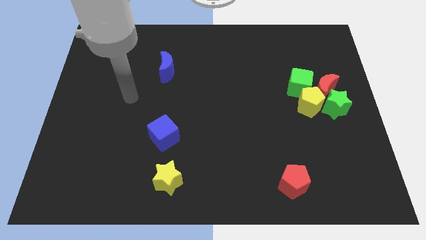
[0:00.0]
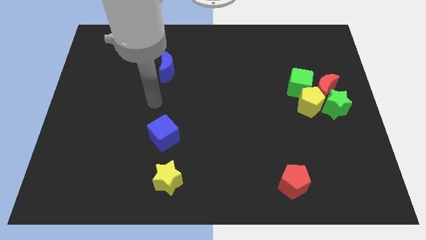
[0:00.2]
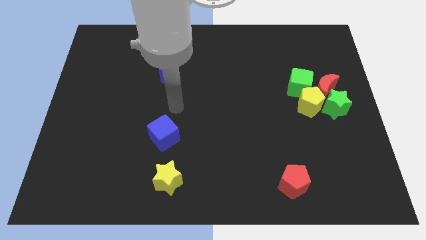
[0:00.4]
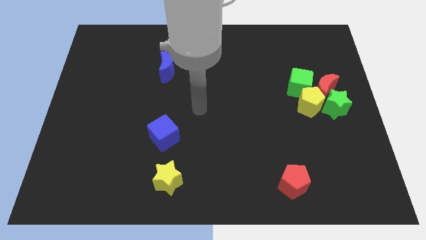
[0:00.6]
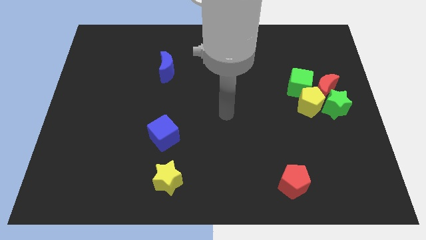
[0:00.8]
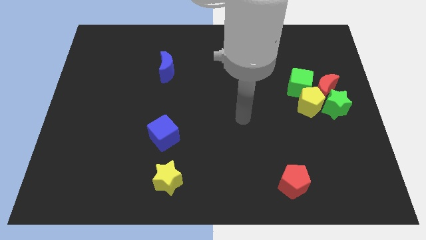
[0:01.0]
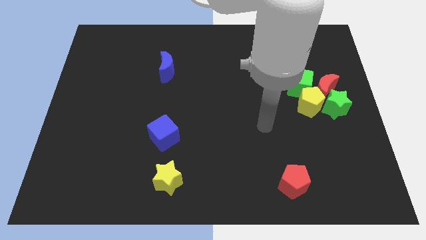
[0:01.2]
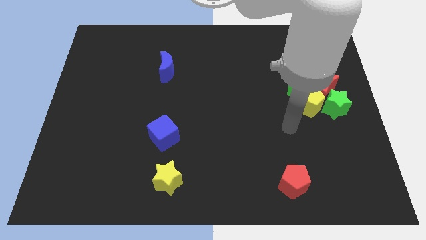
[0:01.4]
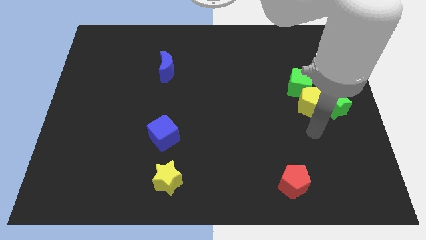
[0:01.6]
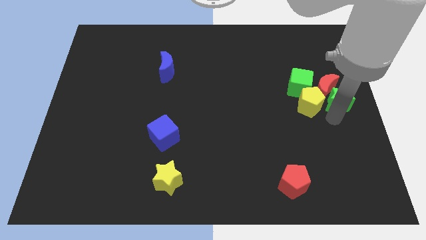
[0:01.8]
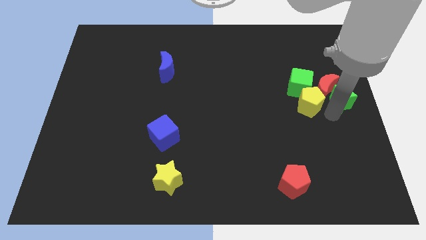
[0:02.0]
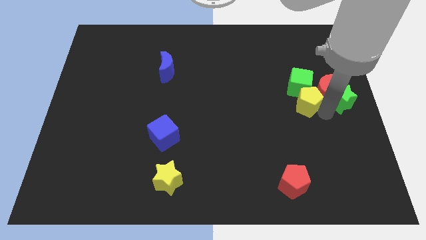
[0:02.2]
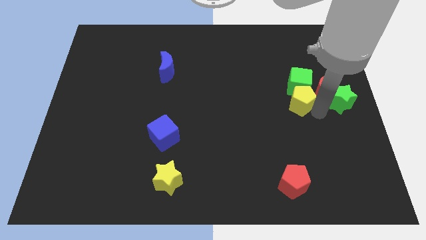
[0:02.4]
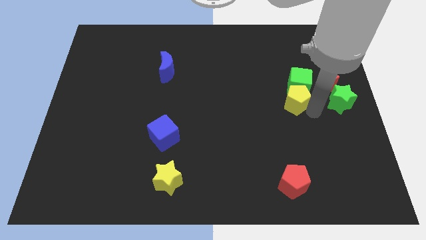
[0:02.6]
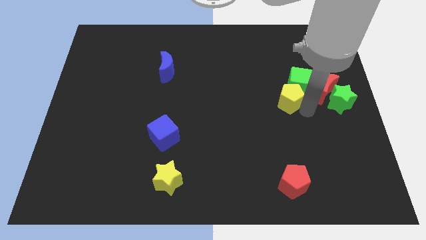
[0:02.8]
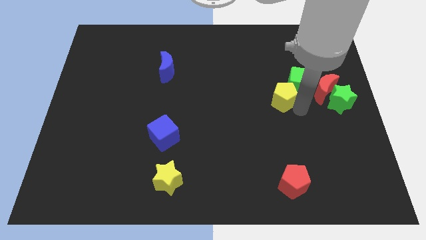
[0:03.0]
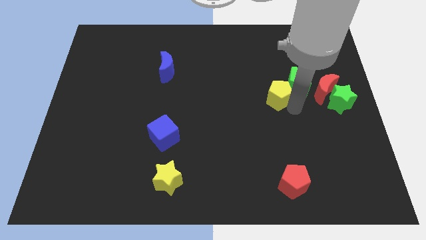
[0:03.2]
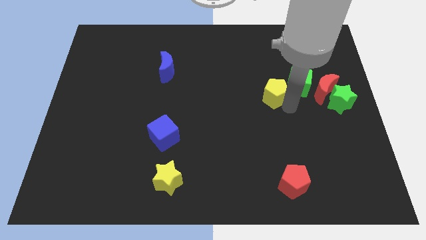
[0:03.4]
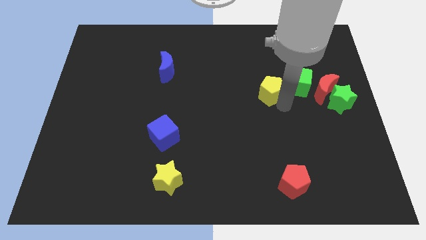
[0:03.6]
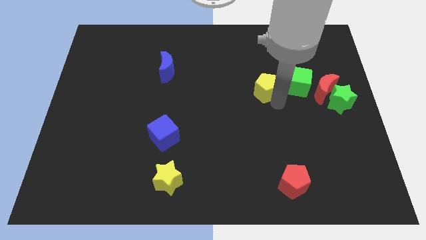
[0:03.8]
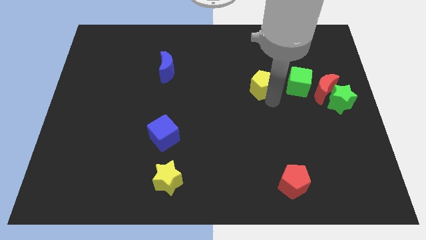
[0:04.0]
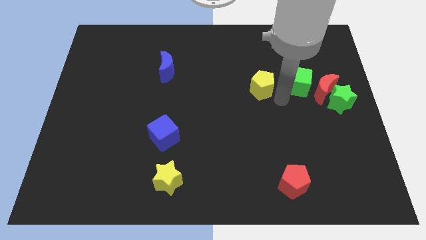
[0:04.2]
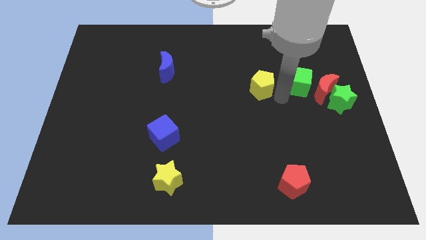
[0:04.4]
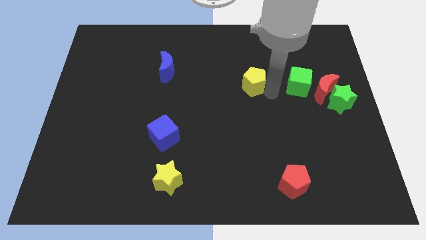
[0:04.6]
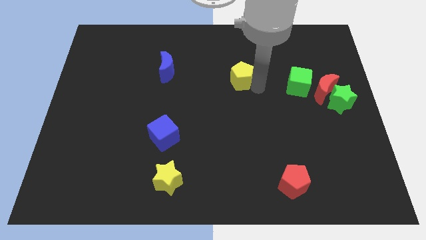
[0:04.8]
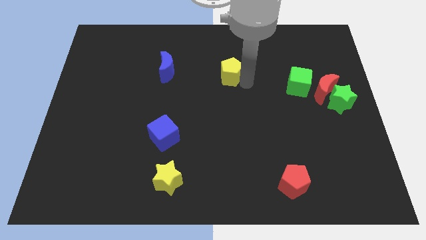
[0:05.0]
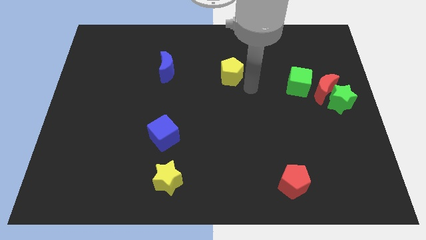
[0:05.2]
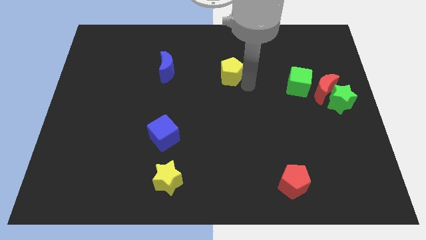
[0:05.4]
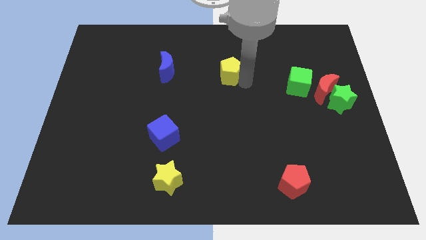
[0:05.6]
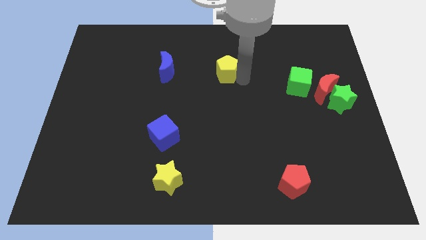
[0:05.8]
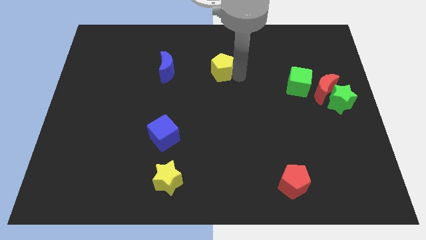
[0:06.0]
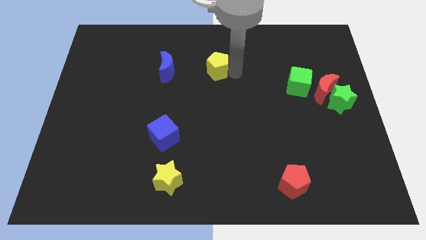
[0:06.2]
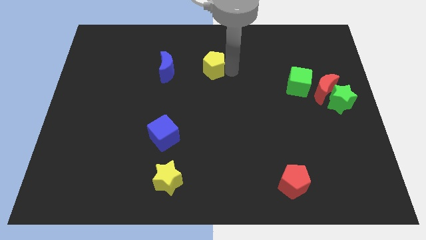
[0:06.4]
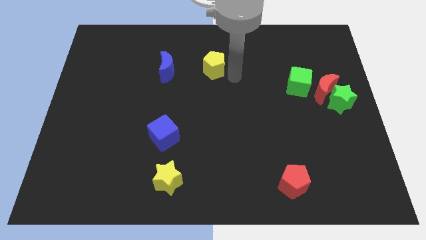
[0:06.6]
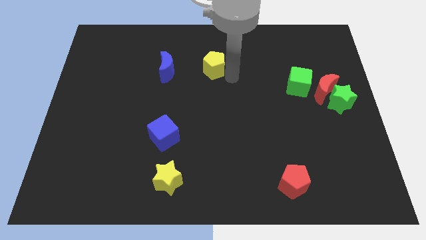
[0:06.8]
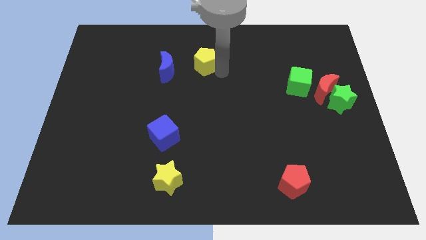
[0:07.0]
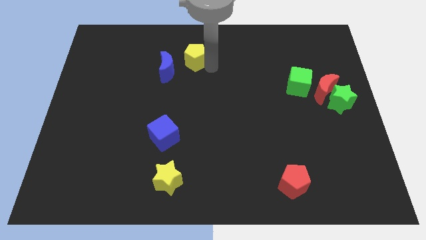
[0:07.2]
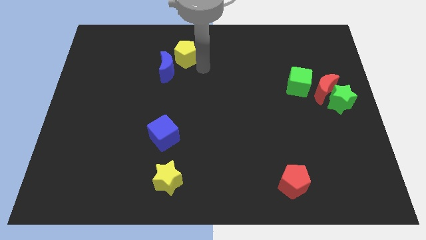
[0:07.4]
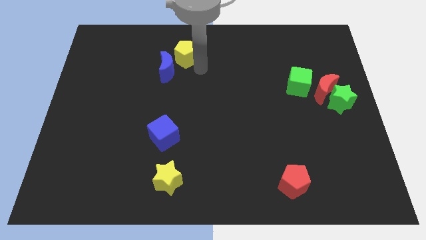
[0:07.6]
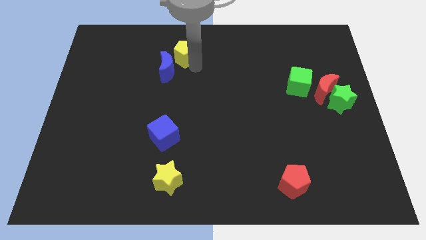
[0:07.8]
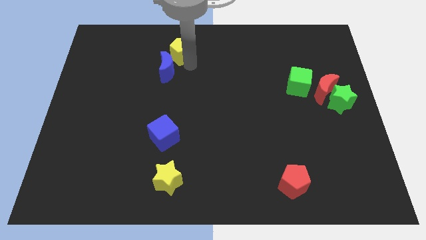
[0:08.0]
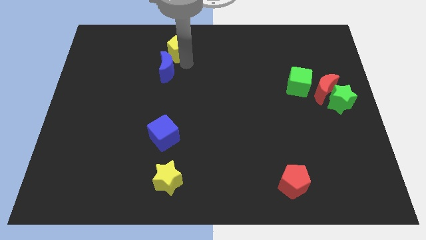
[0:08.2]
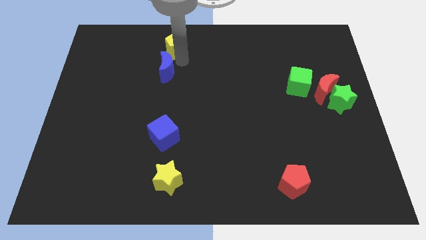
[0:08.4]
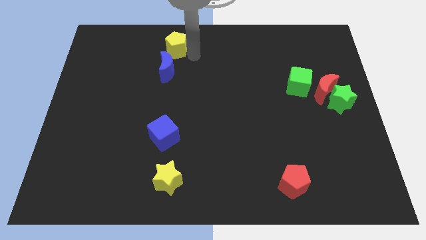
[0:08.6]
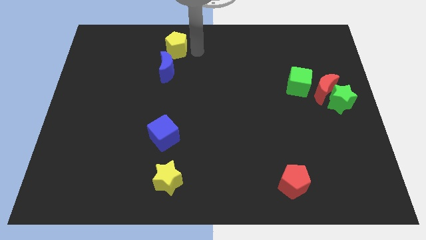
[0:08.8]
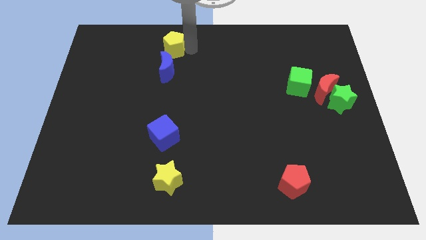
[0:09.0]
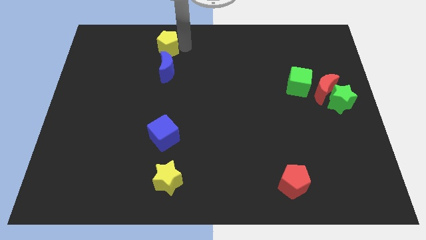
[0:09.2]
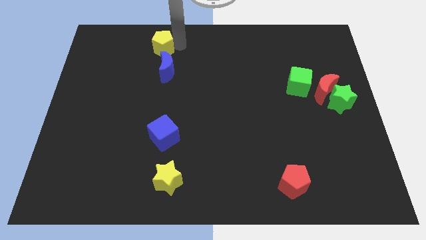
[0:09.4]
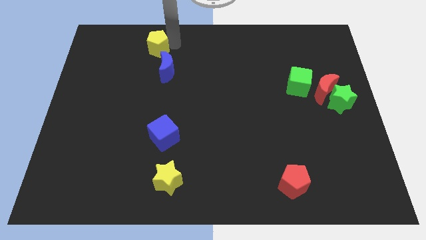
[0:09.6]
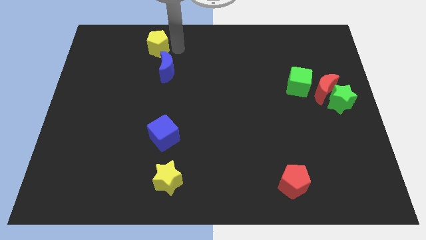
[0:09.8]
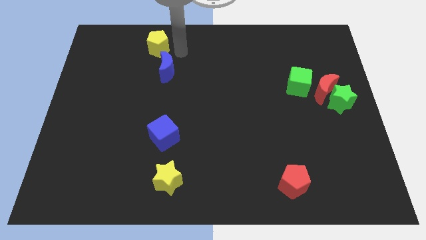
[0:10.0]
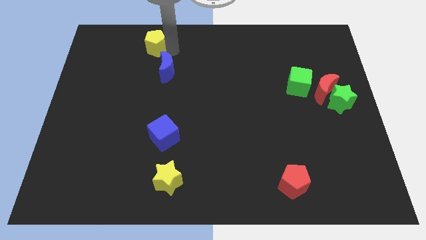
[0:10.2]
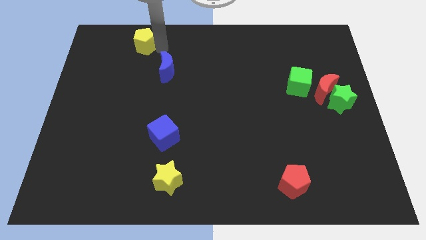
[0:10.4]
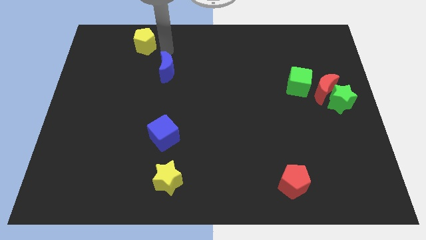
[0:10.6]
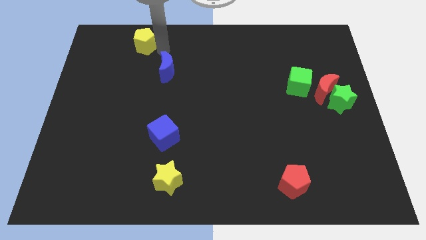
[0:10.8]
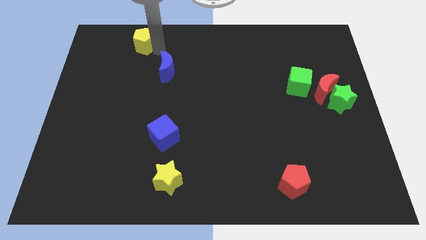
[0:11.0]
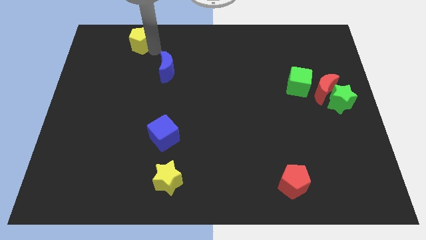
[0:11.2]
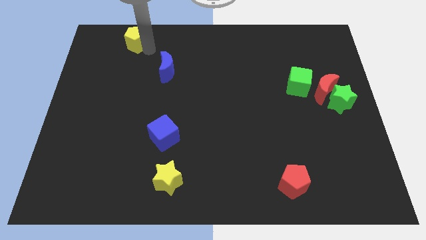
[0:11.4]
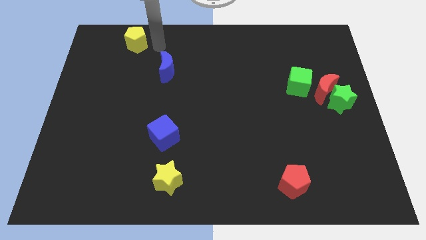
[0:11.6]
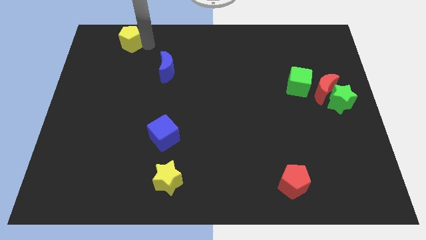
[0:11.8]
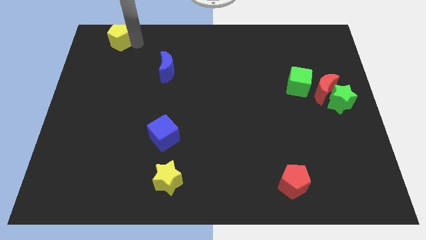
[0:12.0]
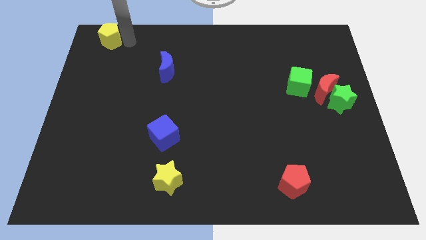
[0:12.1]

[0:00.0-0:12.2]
push the yellow pentagon to the upper left corner
